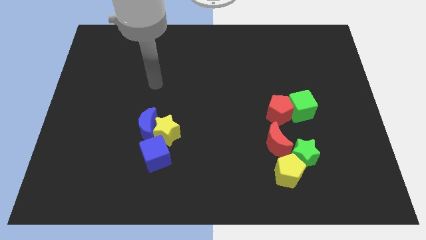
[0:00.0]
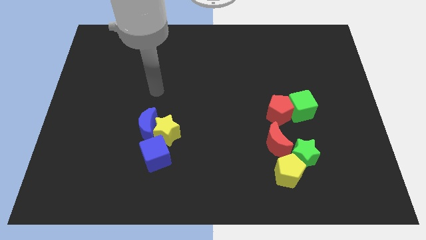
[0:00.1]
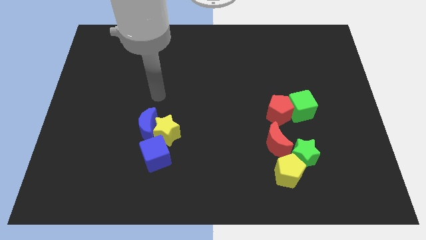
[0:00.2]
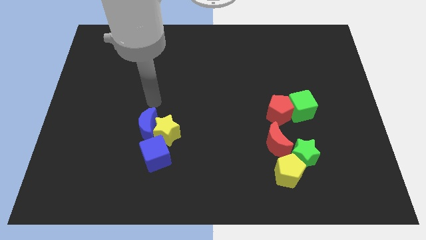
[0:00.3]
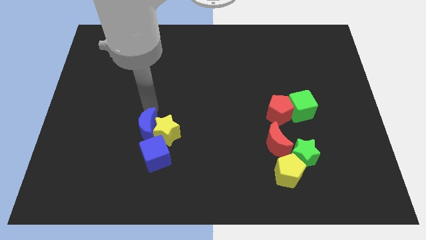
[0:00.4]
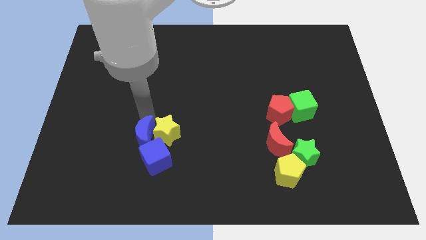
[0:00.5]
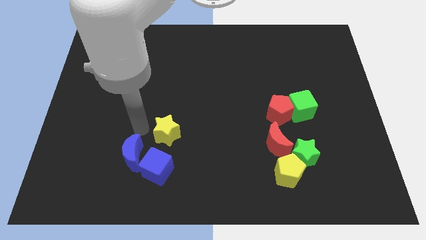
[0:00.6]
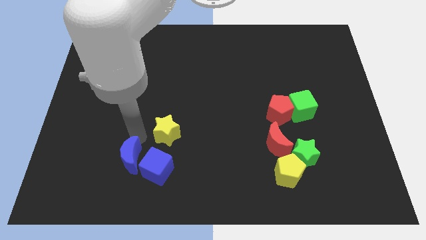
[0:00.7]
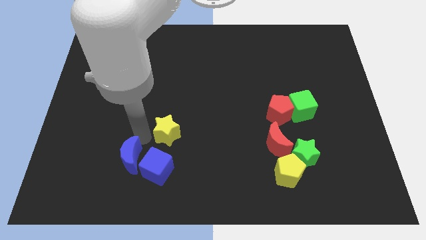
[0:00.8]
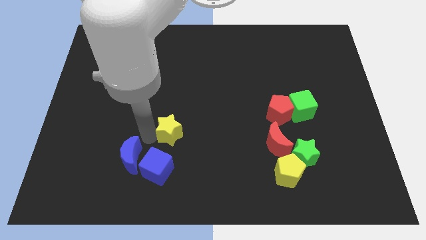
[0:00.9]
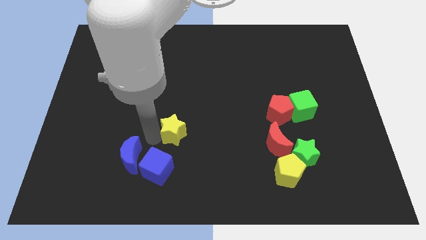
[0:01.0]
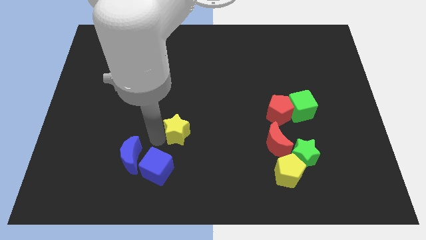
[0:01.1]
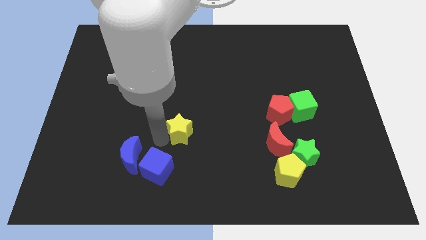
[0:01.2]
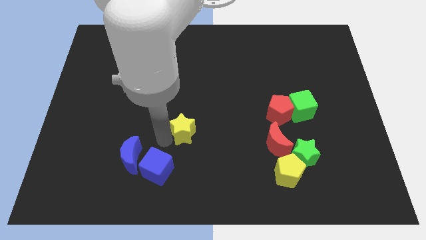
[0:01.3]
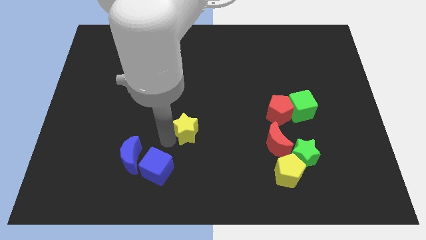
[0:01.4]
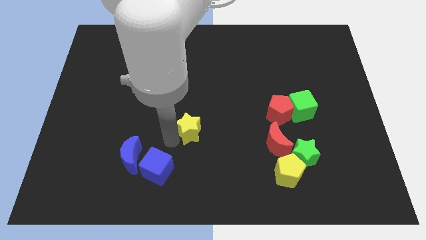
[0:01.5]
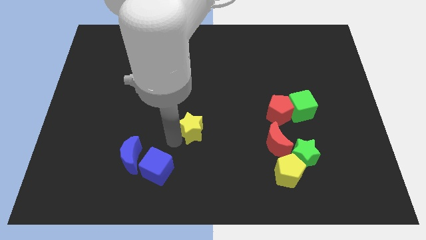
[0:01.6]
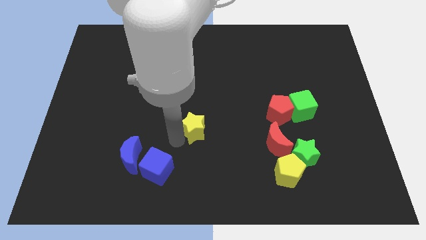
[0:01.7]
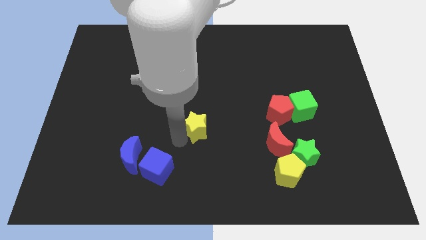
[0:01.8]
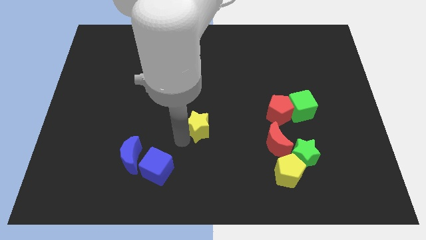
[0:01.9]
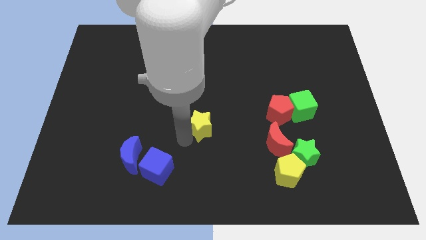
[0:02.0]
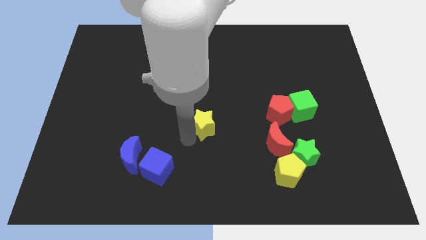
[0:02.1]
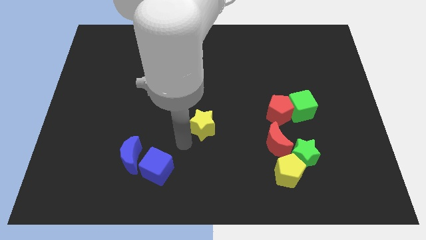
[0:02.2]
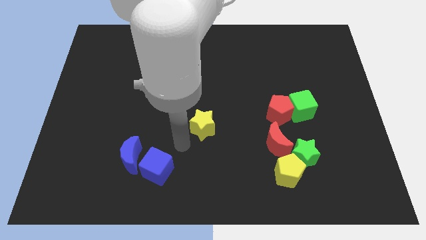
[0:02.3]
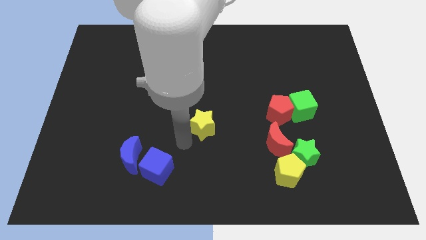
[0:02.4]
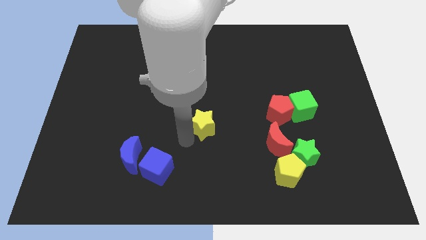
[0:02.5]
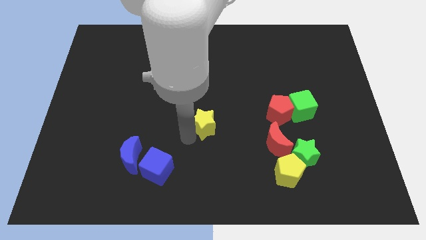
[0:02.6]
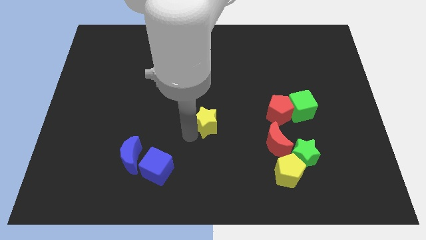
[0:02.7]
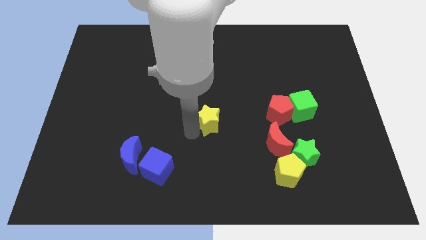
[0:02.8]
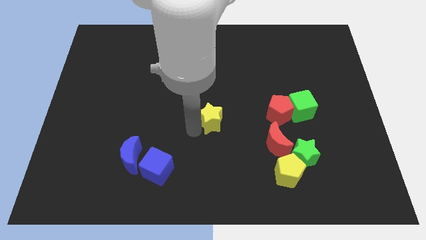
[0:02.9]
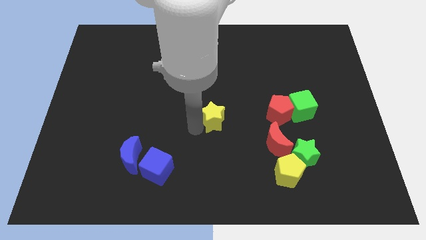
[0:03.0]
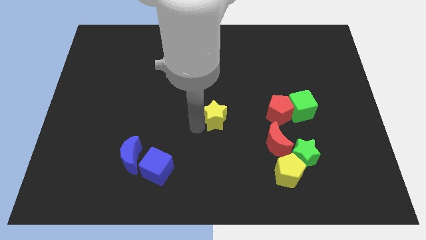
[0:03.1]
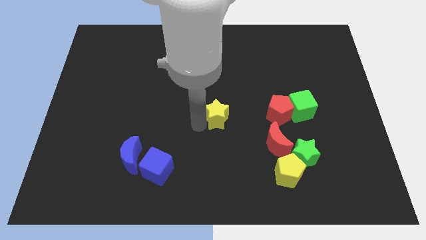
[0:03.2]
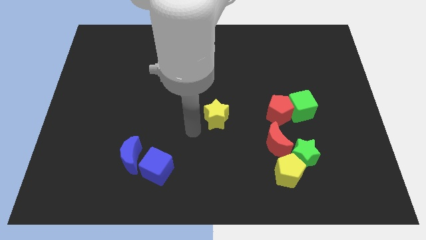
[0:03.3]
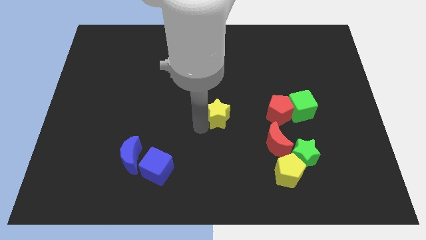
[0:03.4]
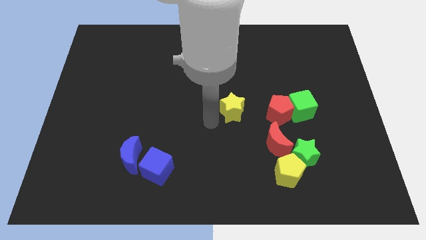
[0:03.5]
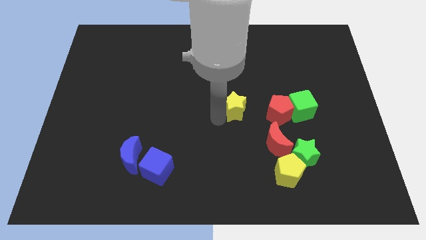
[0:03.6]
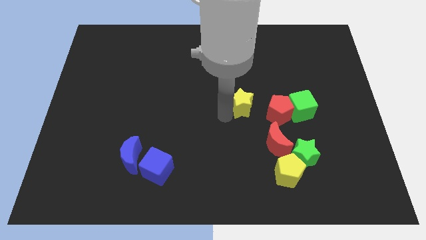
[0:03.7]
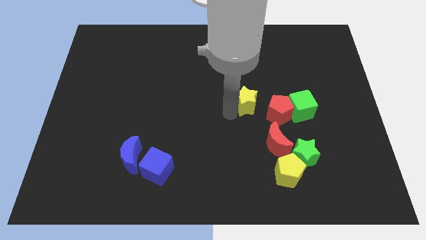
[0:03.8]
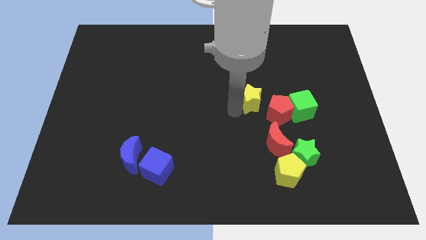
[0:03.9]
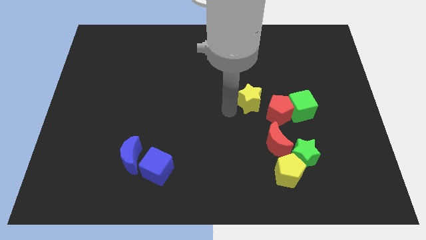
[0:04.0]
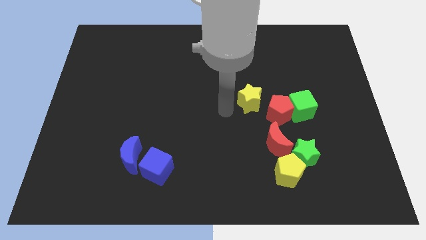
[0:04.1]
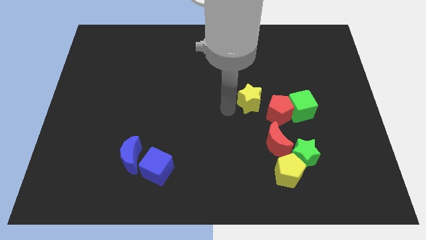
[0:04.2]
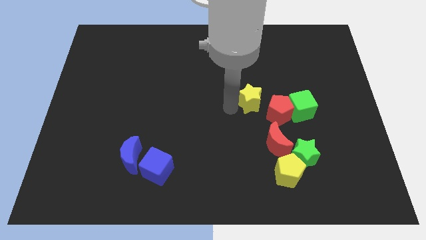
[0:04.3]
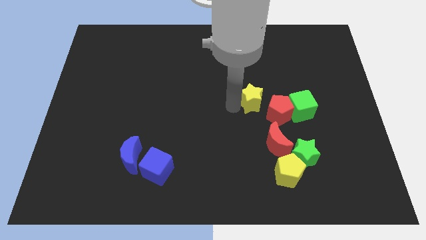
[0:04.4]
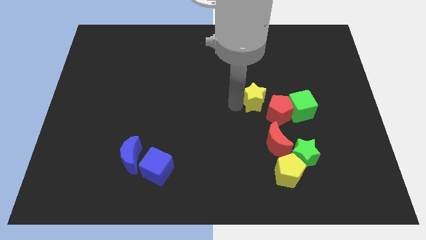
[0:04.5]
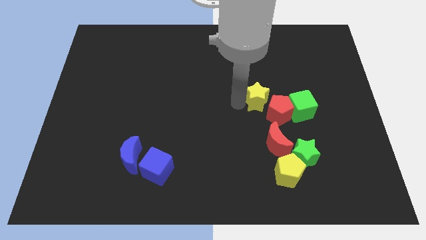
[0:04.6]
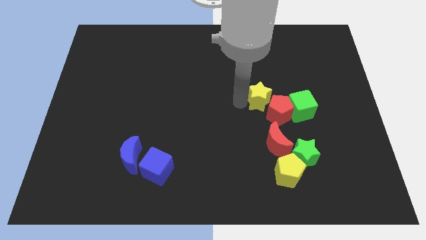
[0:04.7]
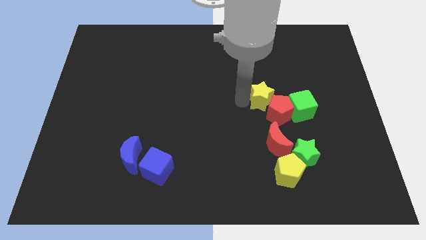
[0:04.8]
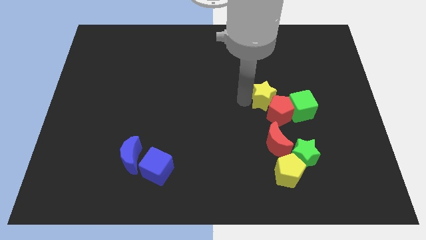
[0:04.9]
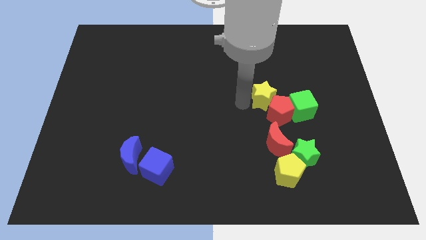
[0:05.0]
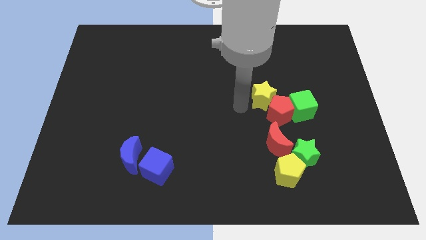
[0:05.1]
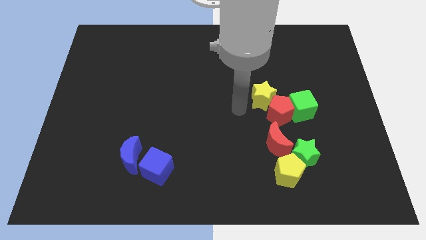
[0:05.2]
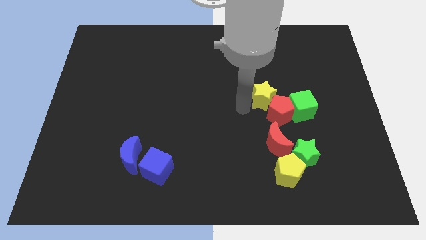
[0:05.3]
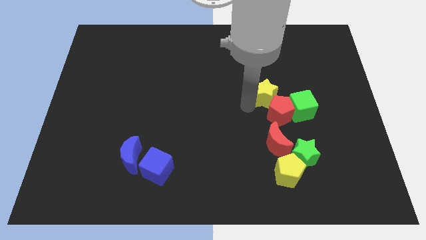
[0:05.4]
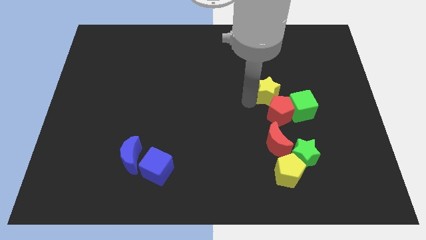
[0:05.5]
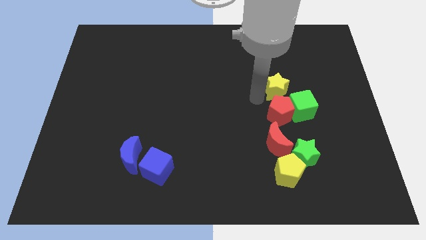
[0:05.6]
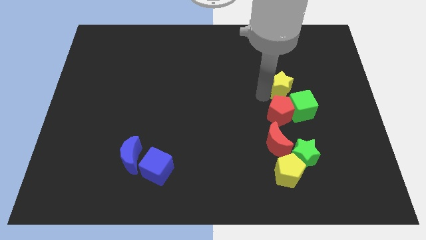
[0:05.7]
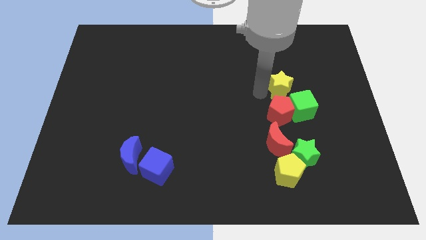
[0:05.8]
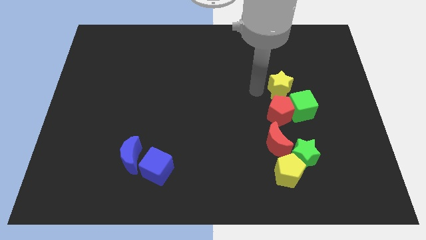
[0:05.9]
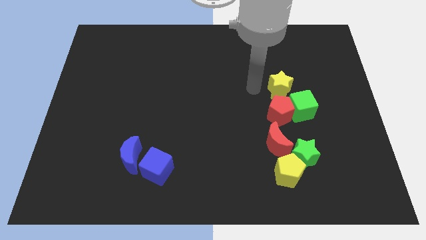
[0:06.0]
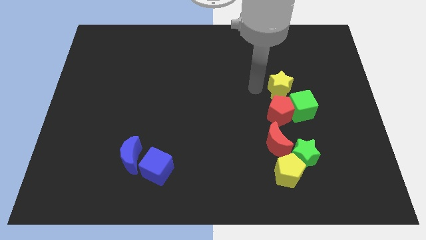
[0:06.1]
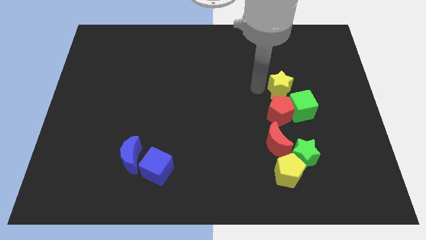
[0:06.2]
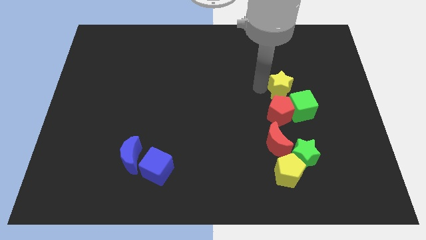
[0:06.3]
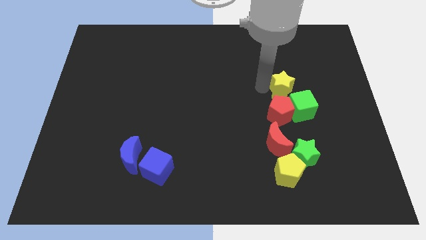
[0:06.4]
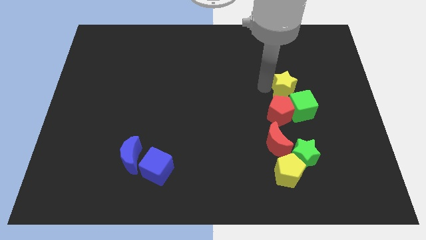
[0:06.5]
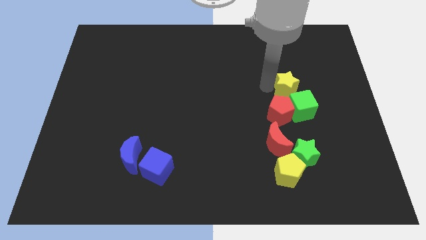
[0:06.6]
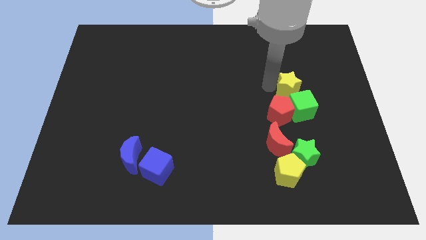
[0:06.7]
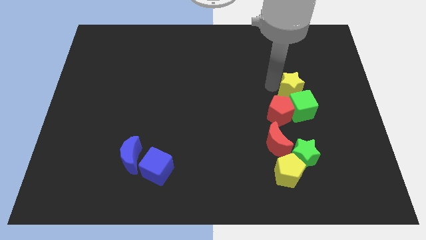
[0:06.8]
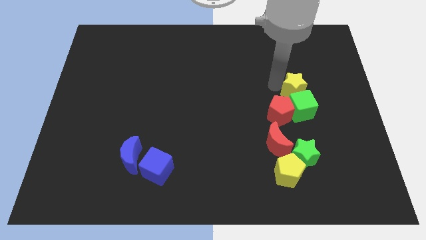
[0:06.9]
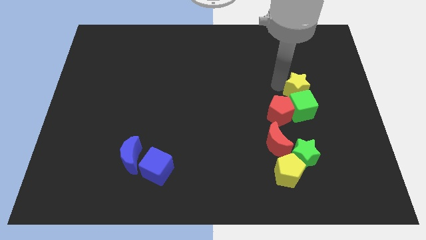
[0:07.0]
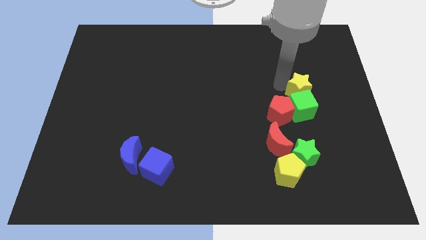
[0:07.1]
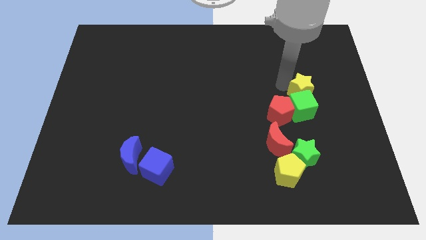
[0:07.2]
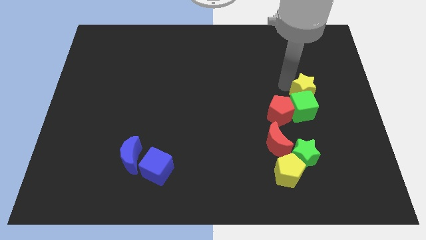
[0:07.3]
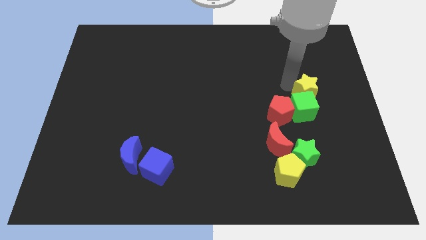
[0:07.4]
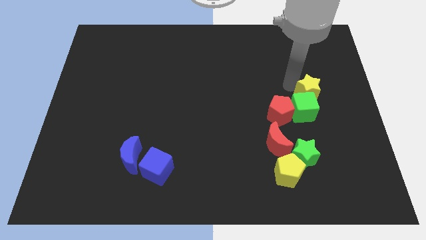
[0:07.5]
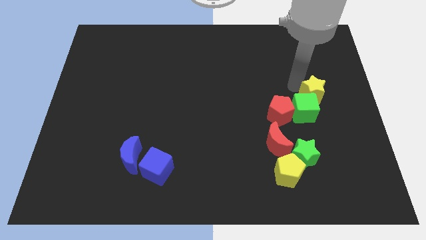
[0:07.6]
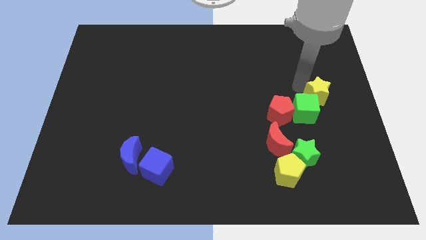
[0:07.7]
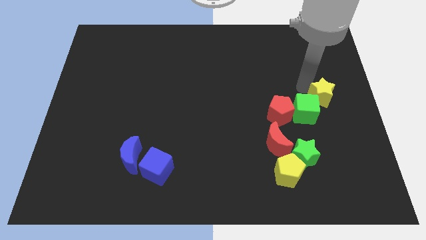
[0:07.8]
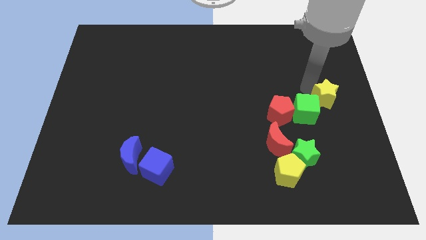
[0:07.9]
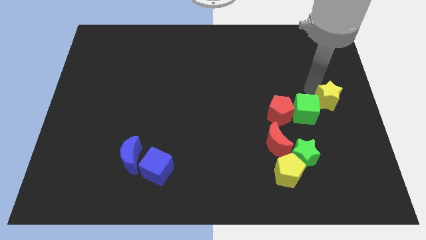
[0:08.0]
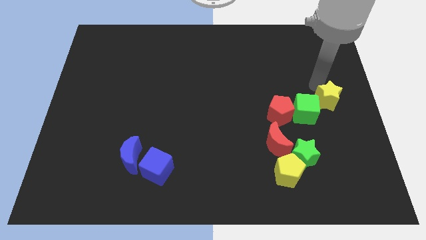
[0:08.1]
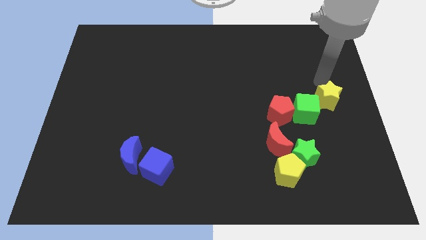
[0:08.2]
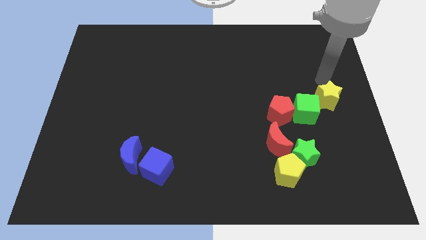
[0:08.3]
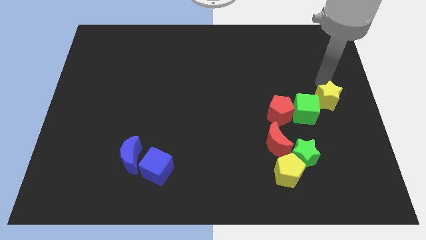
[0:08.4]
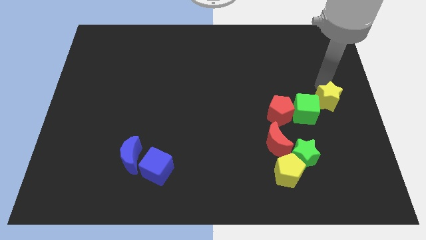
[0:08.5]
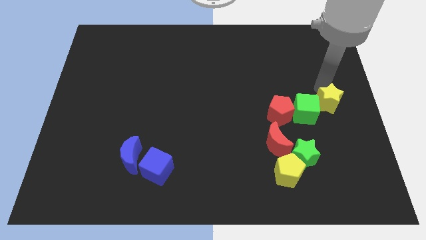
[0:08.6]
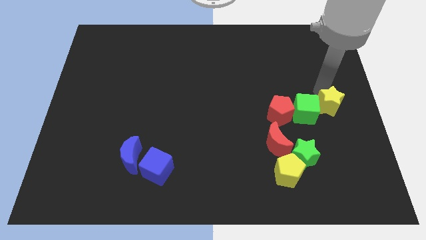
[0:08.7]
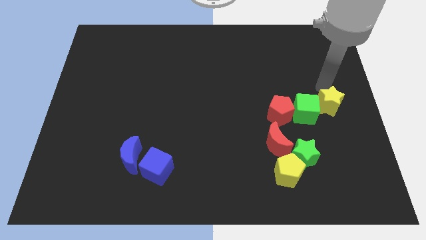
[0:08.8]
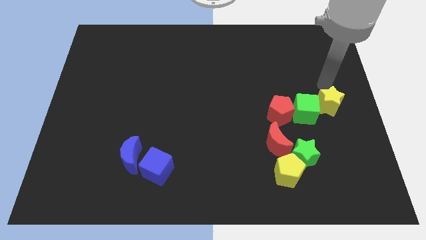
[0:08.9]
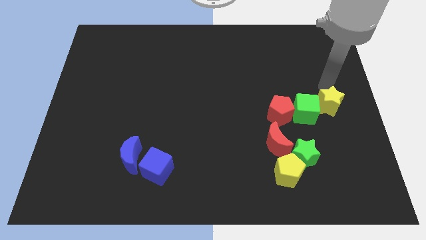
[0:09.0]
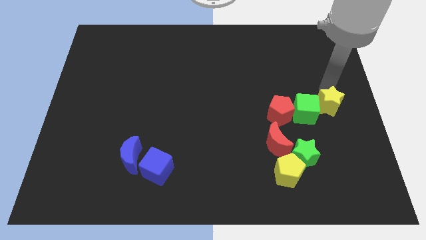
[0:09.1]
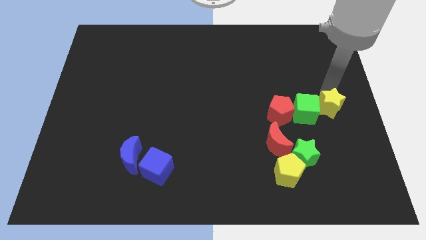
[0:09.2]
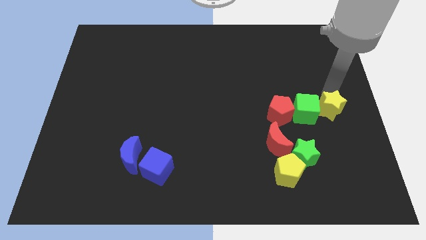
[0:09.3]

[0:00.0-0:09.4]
push the yellow star to the bottom right of the green cube
